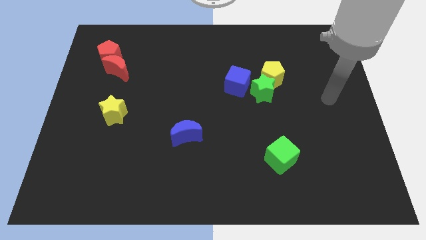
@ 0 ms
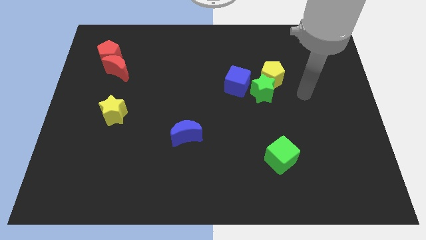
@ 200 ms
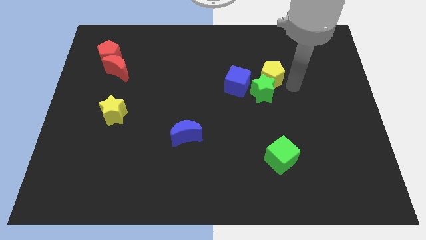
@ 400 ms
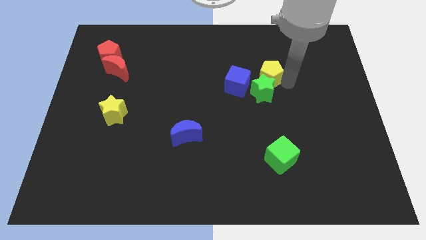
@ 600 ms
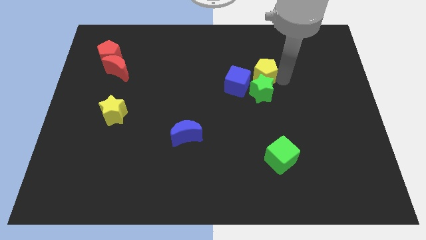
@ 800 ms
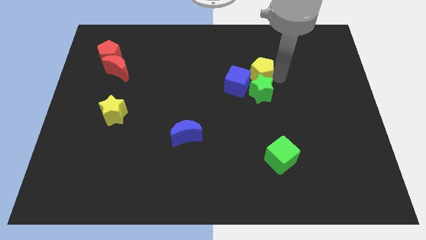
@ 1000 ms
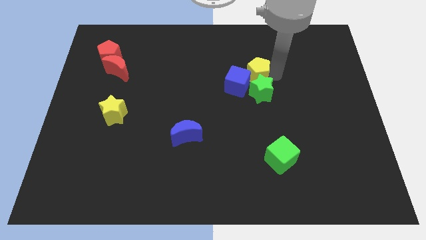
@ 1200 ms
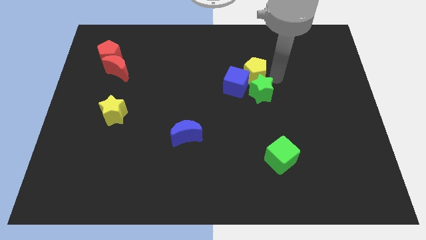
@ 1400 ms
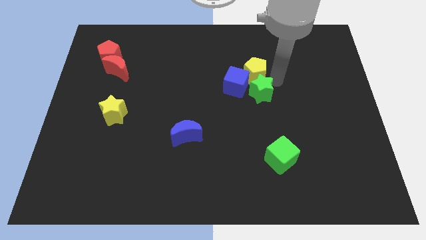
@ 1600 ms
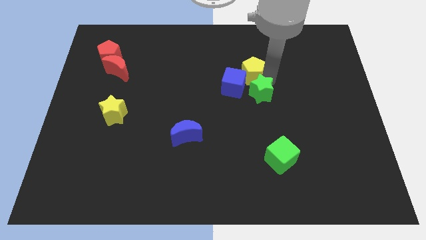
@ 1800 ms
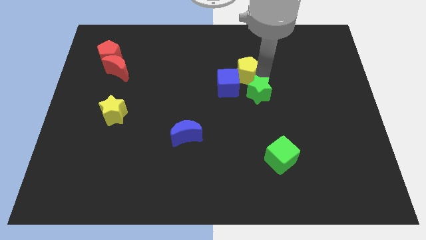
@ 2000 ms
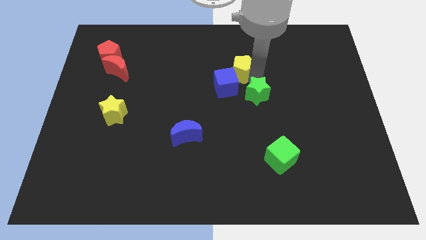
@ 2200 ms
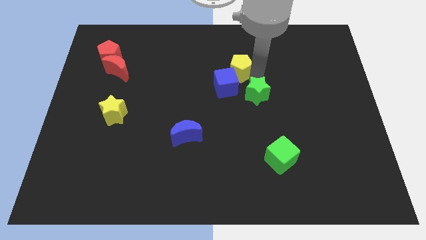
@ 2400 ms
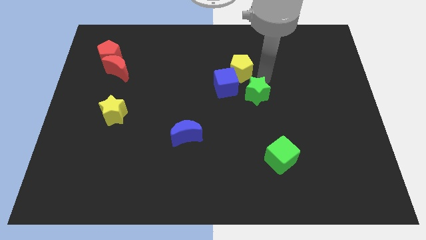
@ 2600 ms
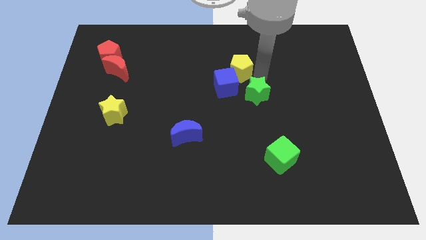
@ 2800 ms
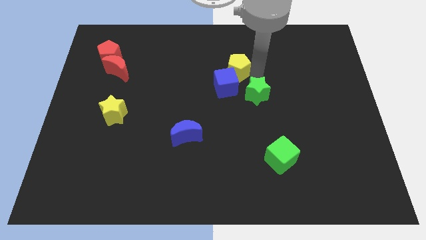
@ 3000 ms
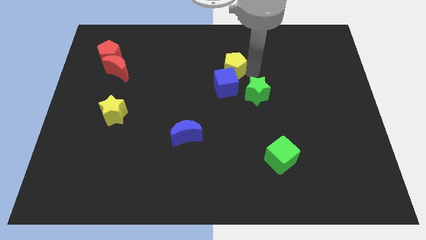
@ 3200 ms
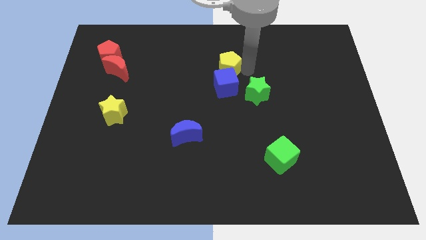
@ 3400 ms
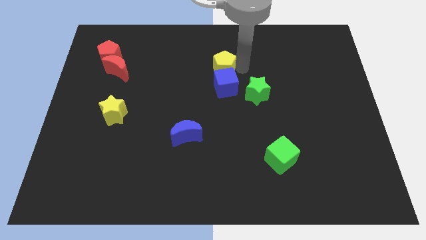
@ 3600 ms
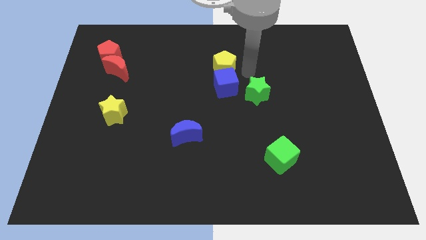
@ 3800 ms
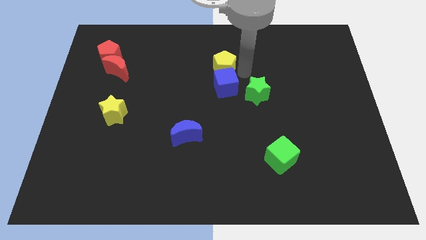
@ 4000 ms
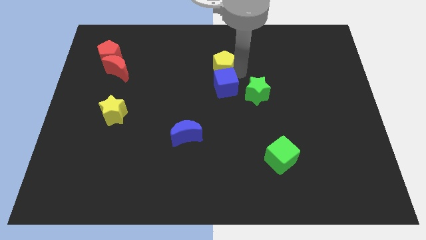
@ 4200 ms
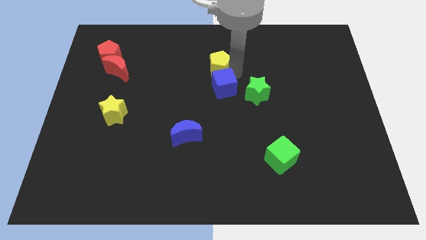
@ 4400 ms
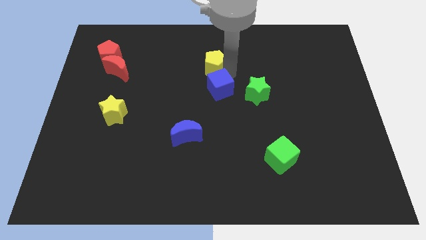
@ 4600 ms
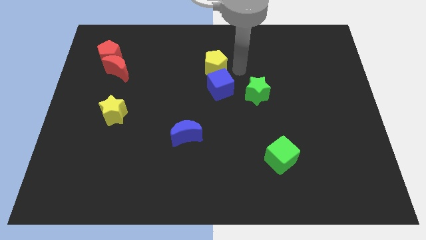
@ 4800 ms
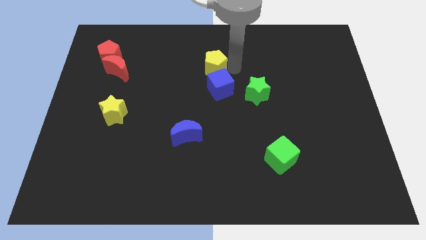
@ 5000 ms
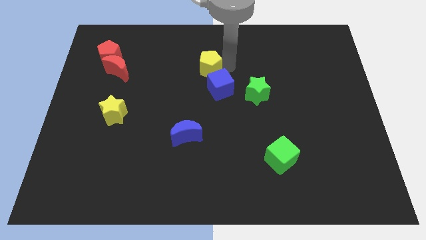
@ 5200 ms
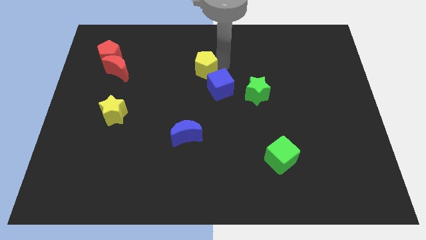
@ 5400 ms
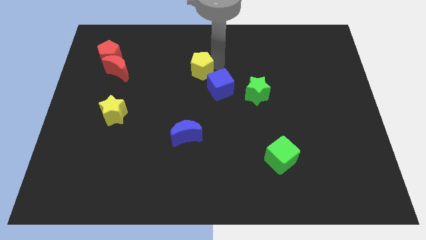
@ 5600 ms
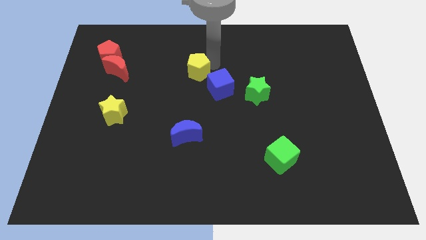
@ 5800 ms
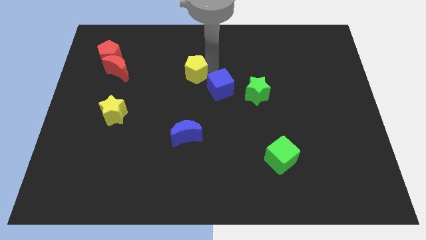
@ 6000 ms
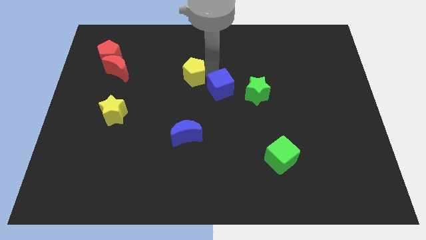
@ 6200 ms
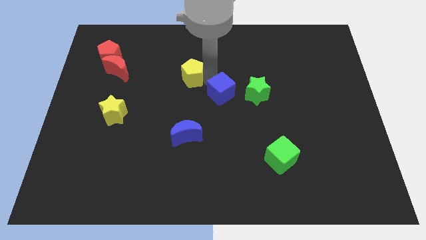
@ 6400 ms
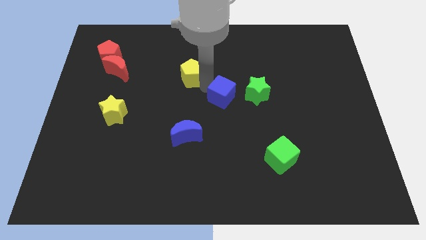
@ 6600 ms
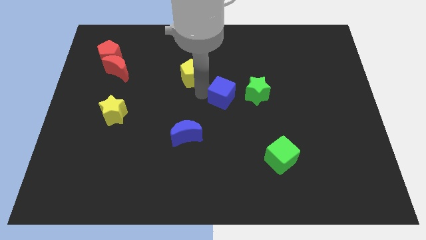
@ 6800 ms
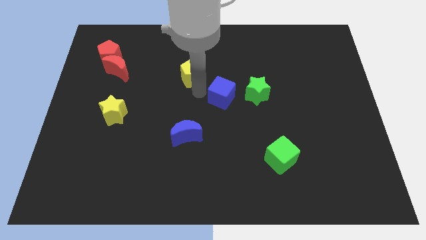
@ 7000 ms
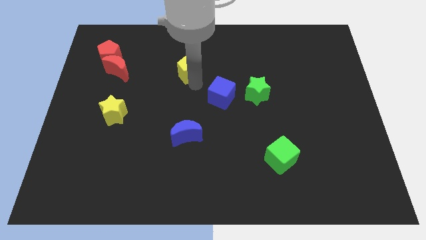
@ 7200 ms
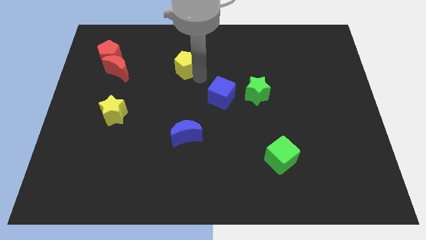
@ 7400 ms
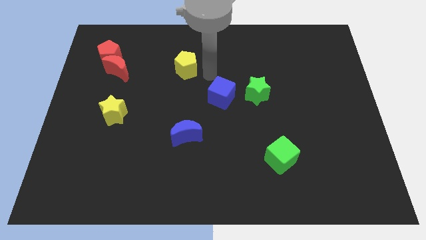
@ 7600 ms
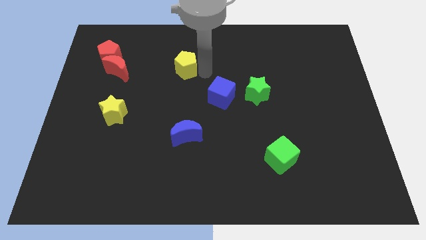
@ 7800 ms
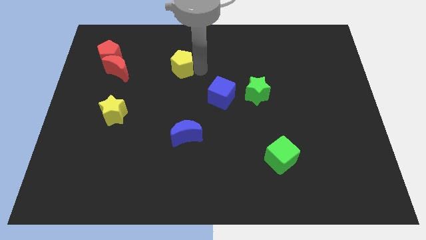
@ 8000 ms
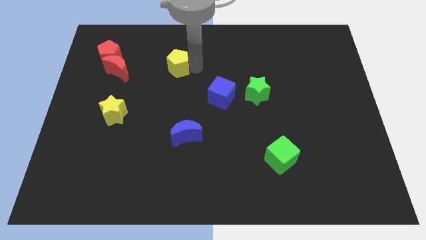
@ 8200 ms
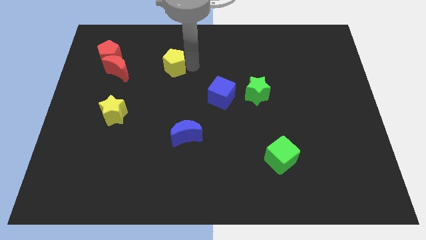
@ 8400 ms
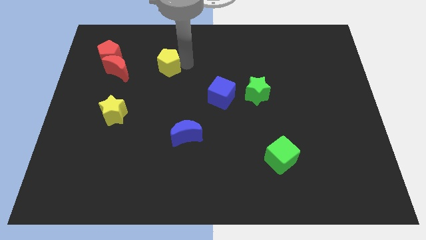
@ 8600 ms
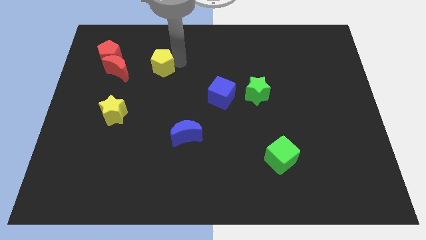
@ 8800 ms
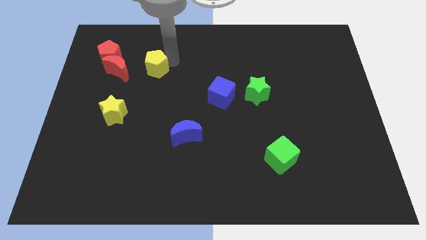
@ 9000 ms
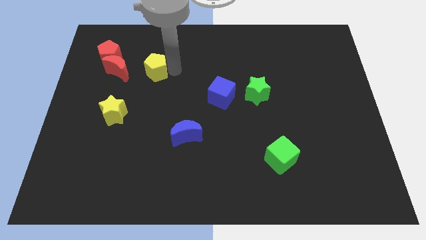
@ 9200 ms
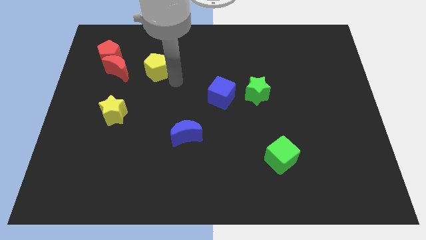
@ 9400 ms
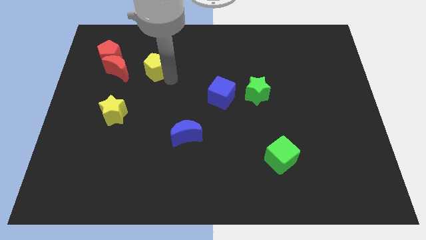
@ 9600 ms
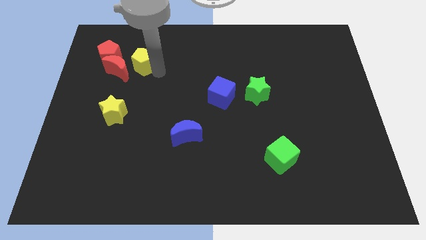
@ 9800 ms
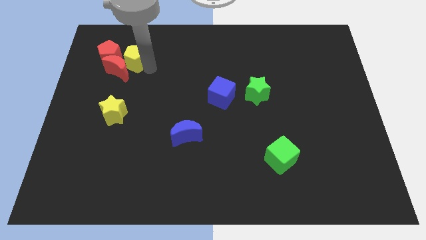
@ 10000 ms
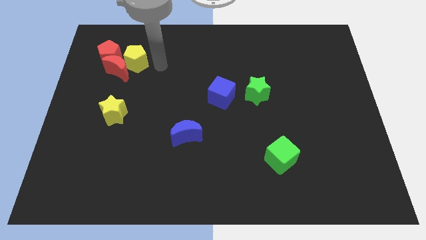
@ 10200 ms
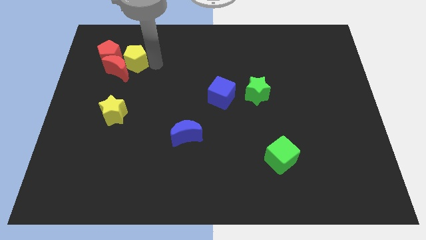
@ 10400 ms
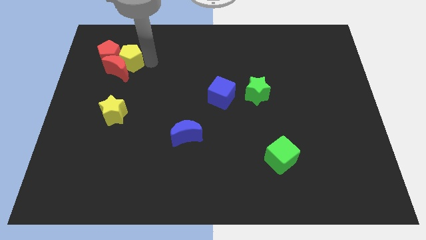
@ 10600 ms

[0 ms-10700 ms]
push the yellow pentagon next to the red pentagon

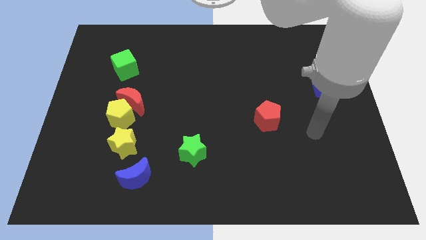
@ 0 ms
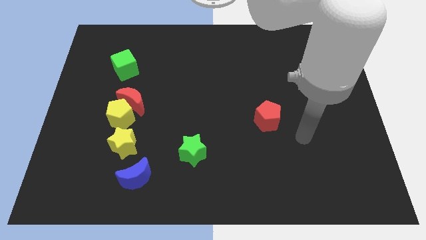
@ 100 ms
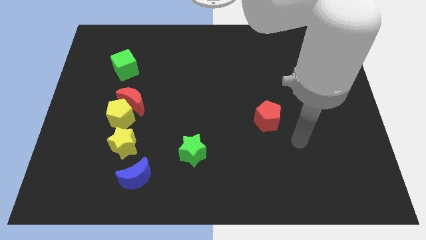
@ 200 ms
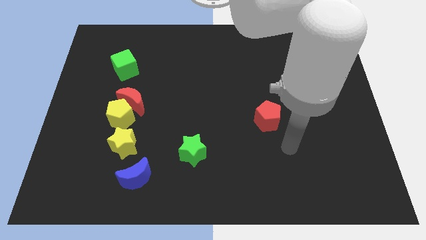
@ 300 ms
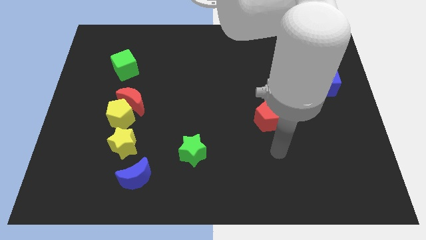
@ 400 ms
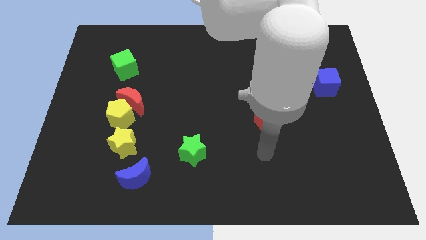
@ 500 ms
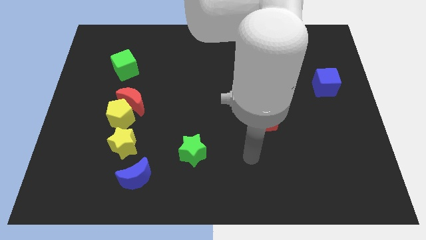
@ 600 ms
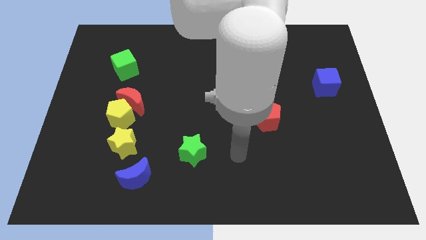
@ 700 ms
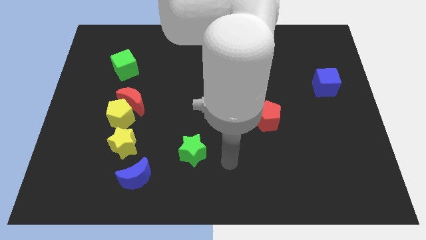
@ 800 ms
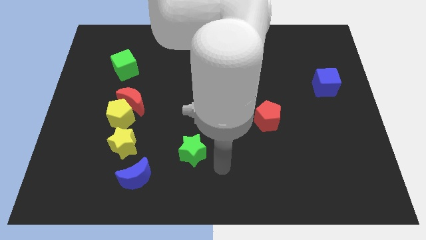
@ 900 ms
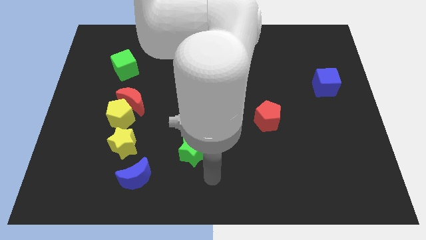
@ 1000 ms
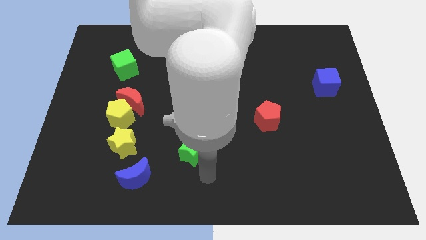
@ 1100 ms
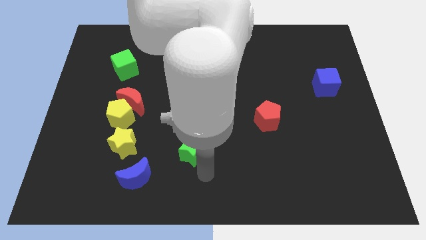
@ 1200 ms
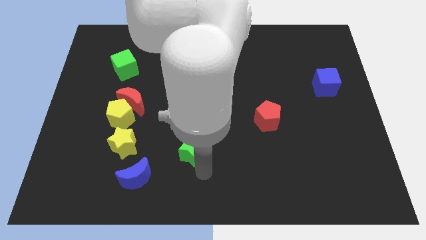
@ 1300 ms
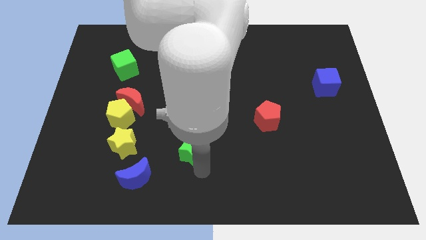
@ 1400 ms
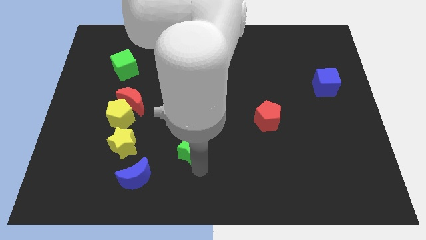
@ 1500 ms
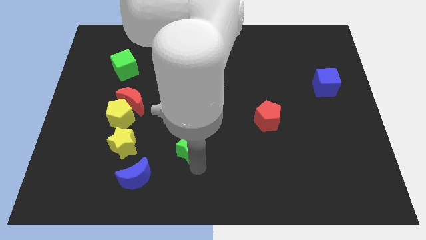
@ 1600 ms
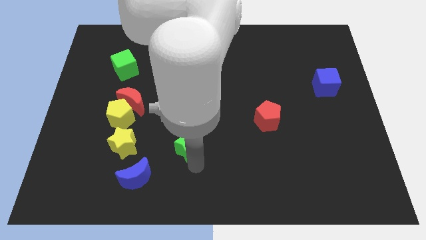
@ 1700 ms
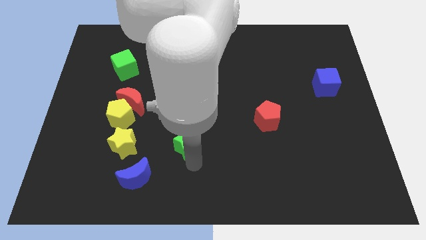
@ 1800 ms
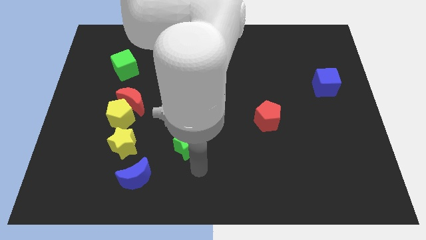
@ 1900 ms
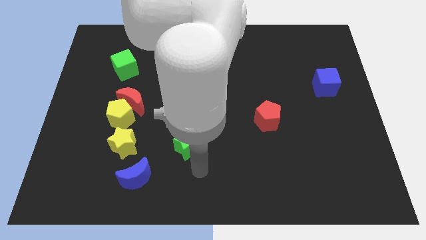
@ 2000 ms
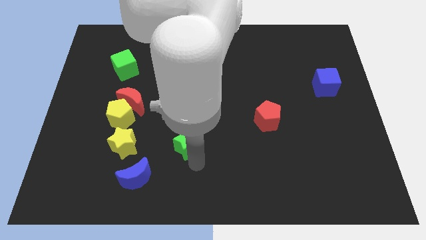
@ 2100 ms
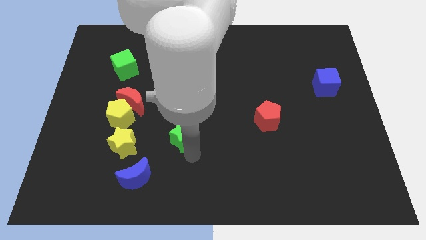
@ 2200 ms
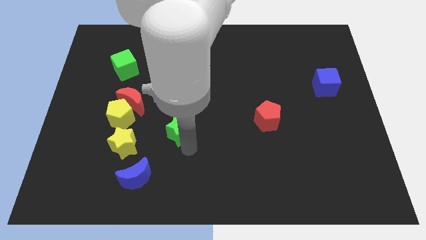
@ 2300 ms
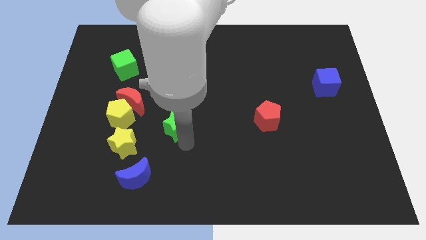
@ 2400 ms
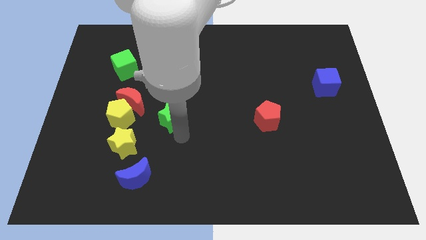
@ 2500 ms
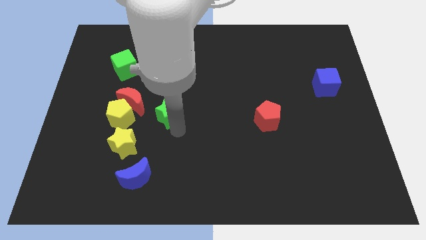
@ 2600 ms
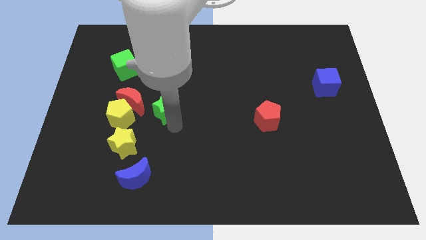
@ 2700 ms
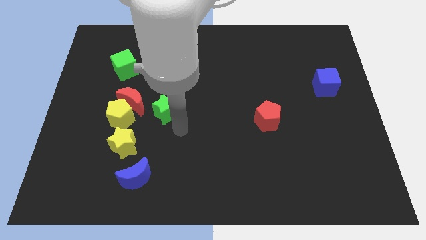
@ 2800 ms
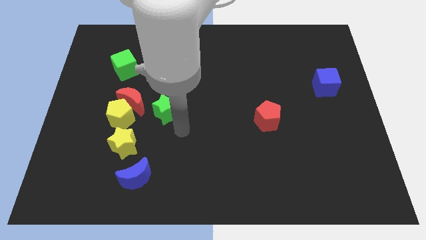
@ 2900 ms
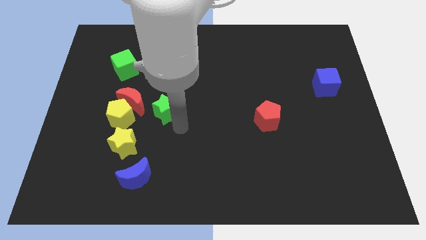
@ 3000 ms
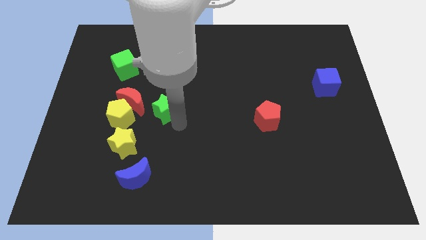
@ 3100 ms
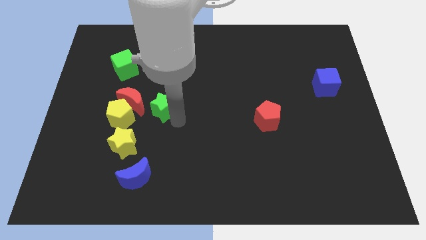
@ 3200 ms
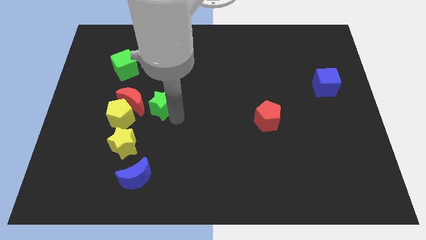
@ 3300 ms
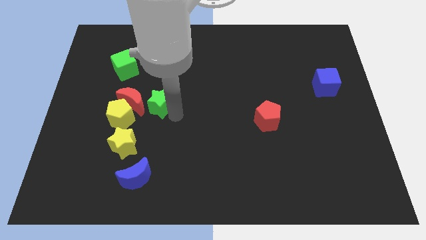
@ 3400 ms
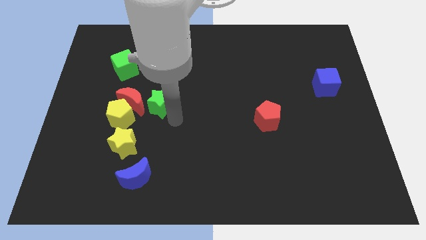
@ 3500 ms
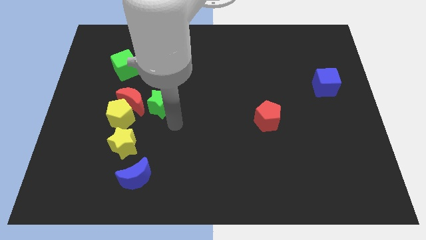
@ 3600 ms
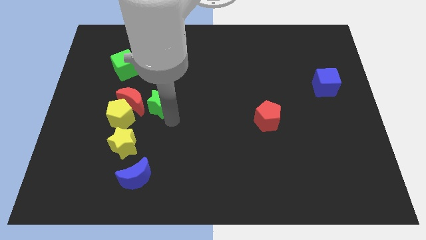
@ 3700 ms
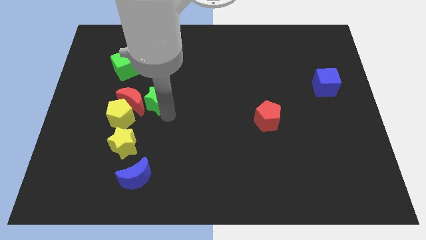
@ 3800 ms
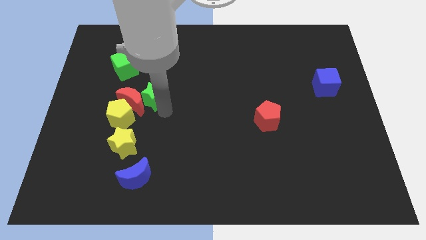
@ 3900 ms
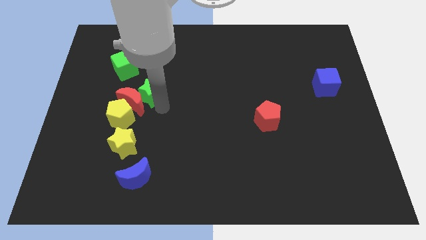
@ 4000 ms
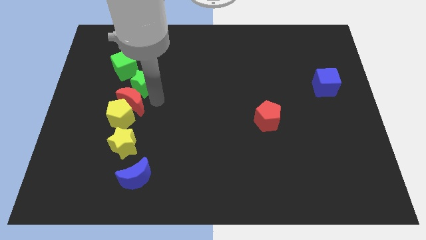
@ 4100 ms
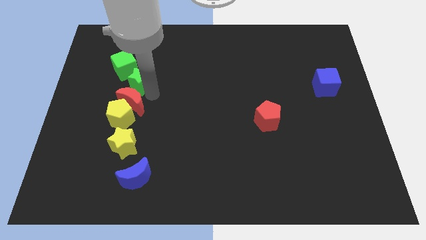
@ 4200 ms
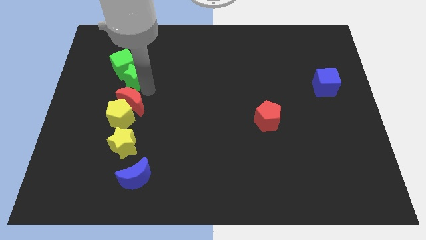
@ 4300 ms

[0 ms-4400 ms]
push the green star towards the green cube
